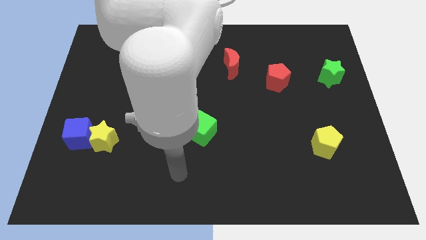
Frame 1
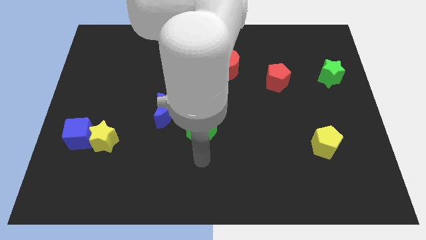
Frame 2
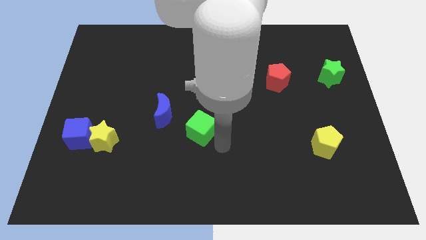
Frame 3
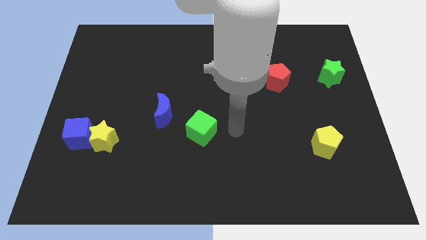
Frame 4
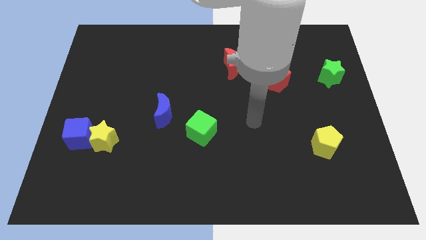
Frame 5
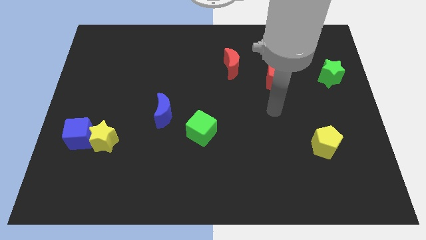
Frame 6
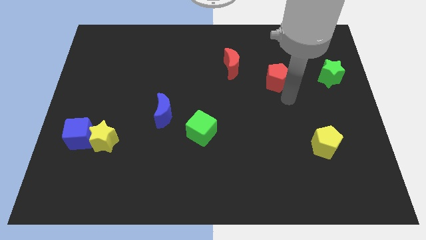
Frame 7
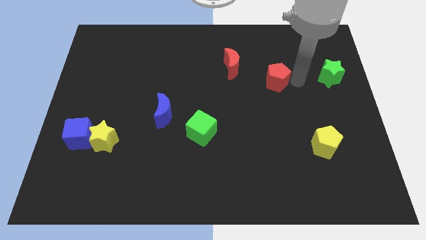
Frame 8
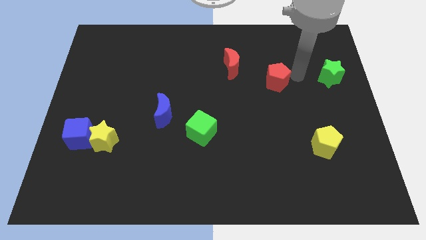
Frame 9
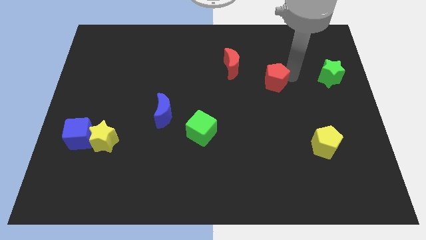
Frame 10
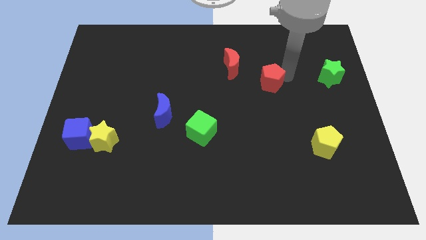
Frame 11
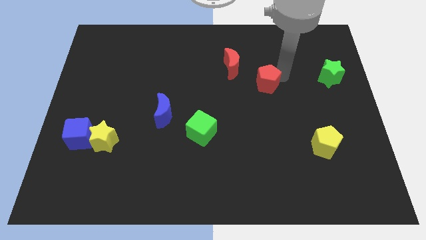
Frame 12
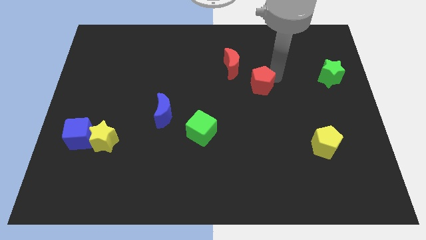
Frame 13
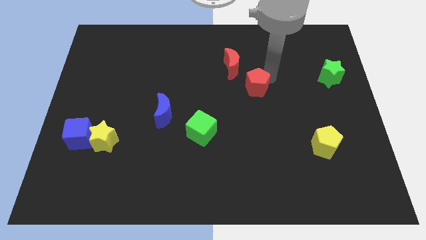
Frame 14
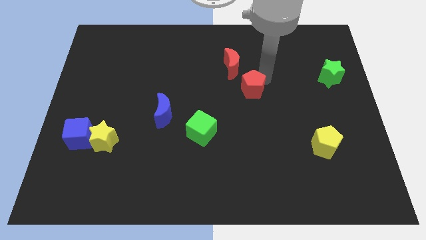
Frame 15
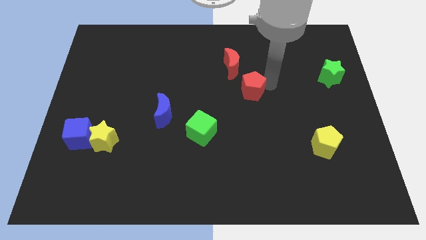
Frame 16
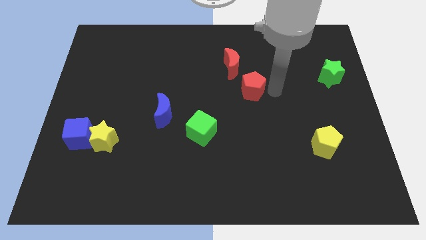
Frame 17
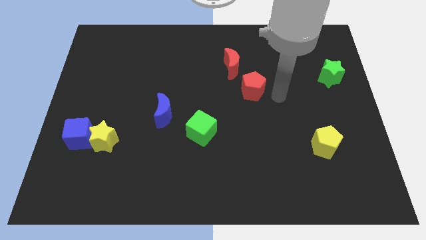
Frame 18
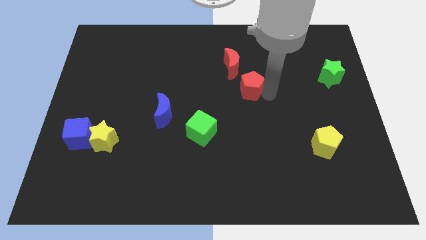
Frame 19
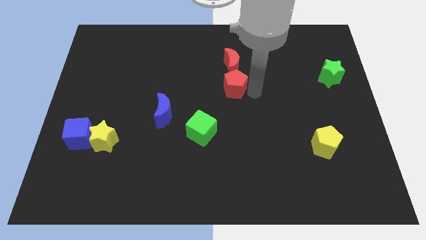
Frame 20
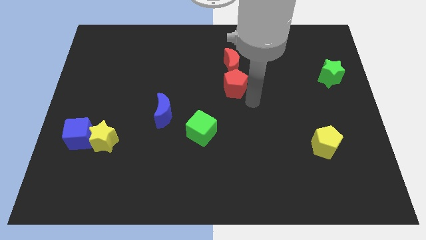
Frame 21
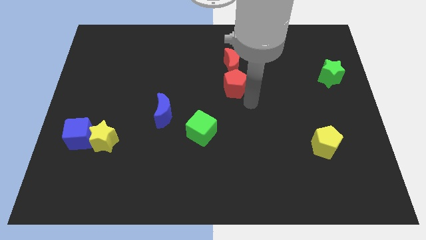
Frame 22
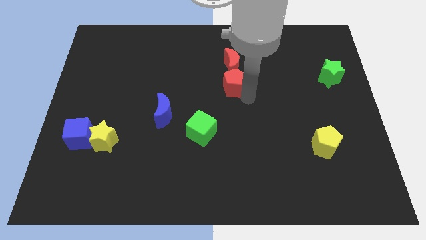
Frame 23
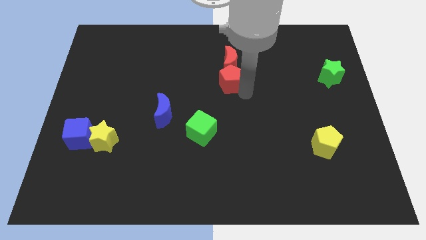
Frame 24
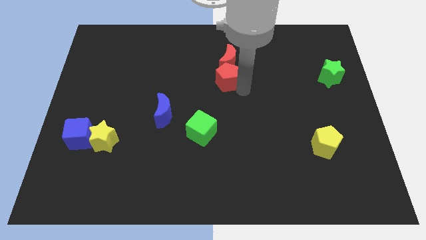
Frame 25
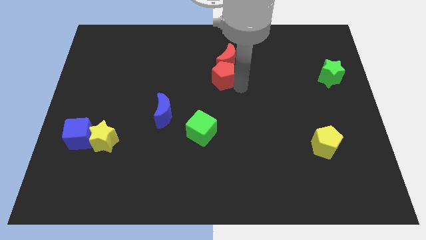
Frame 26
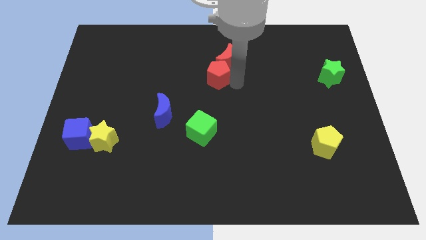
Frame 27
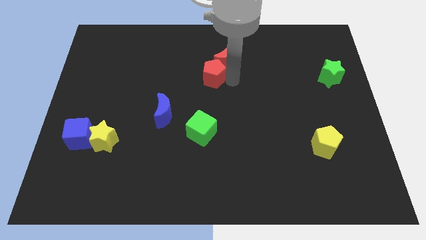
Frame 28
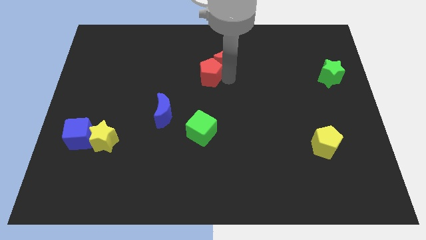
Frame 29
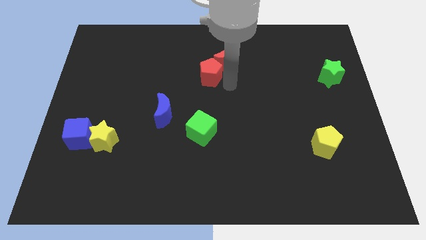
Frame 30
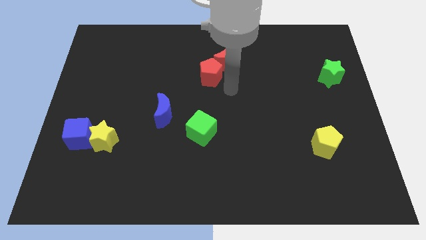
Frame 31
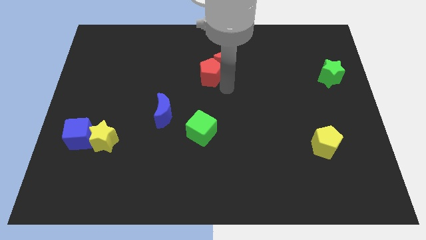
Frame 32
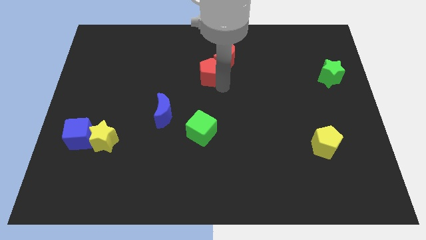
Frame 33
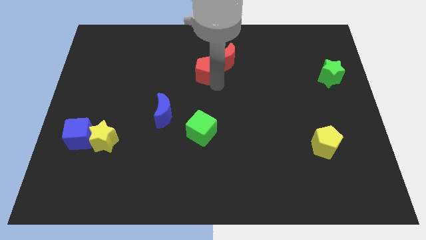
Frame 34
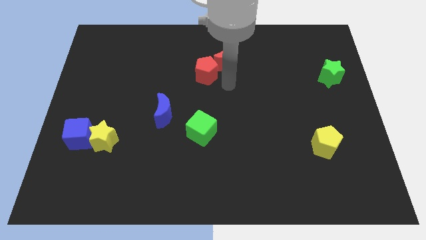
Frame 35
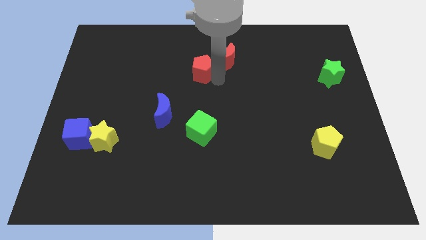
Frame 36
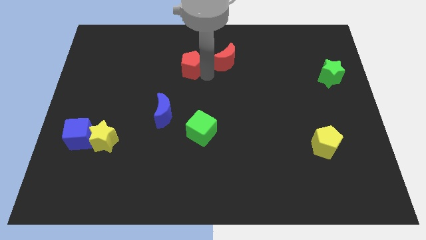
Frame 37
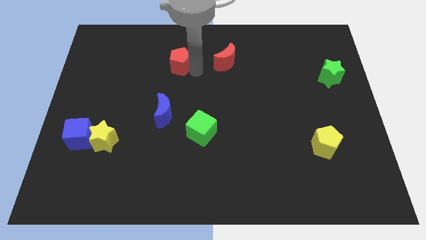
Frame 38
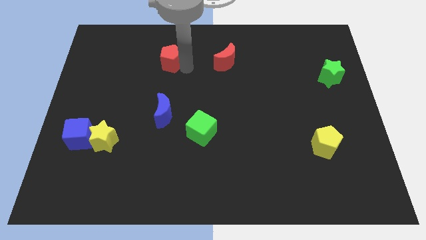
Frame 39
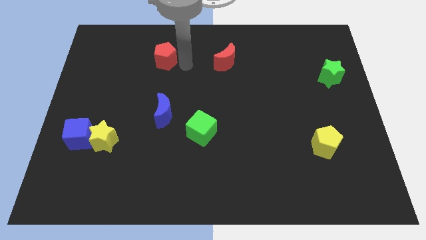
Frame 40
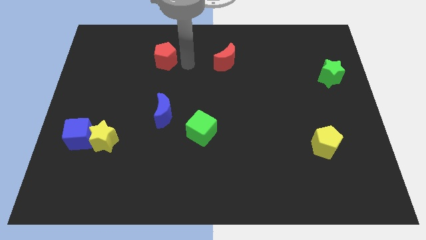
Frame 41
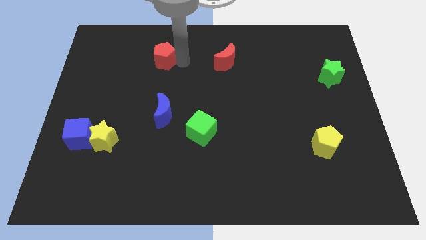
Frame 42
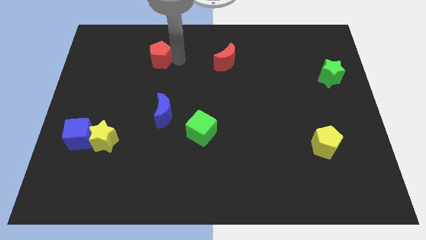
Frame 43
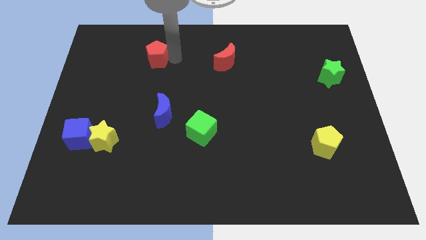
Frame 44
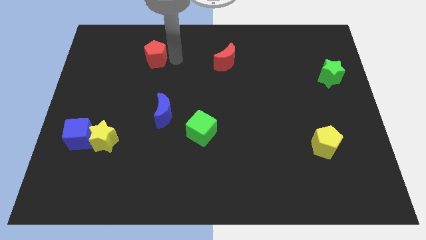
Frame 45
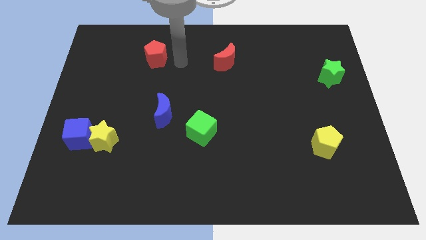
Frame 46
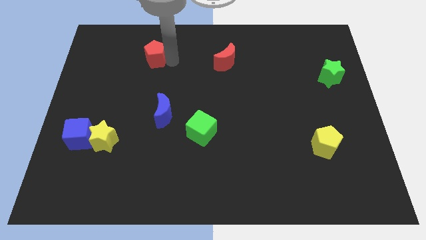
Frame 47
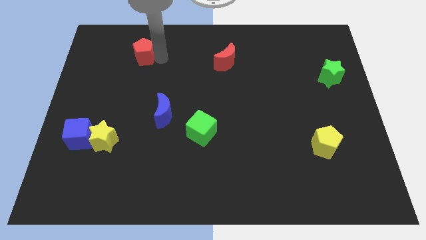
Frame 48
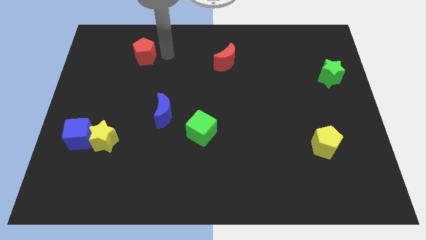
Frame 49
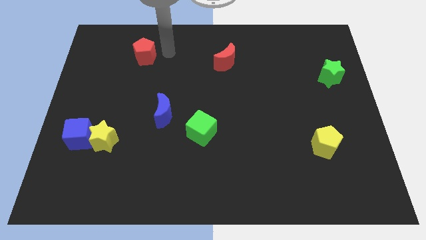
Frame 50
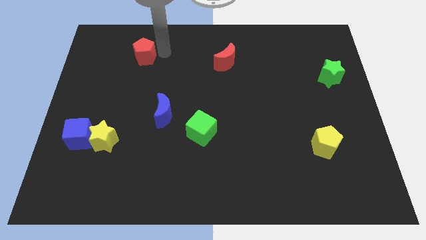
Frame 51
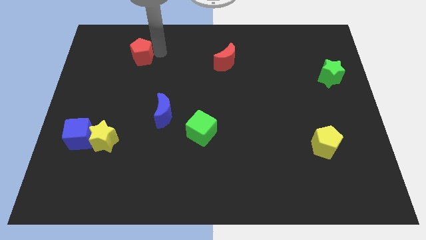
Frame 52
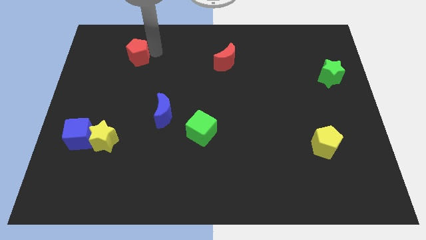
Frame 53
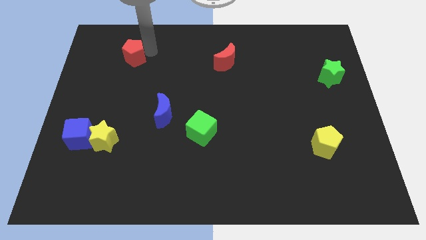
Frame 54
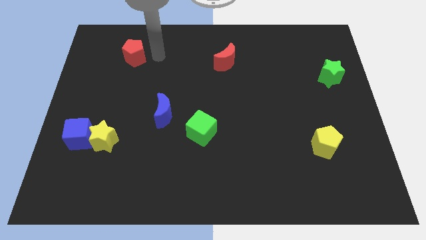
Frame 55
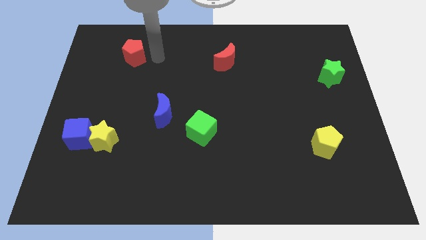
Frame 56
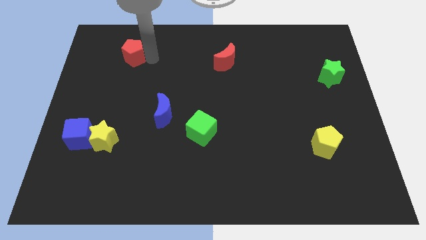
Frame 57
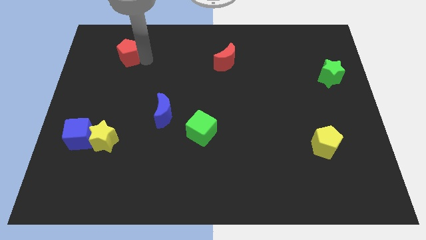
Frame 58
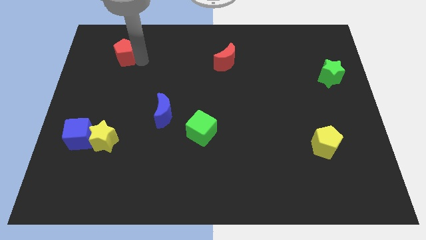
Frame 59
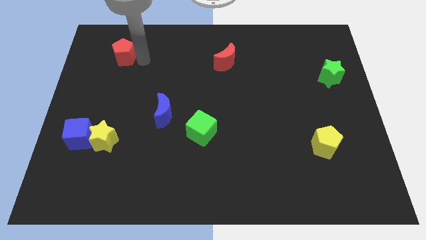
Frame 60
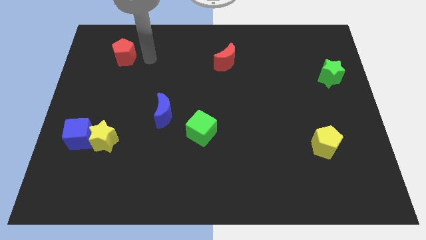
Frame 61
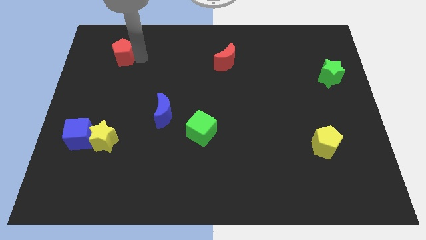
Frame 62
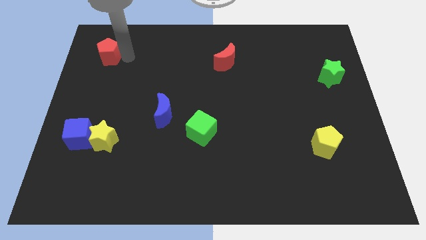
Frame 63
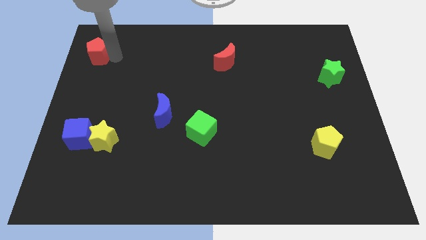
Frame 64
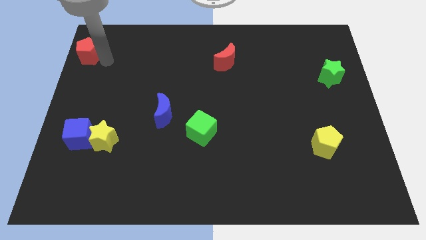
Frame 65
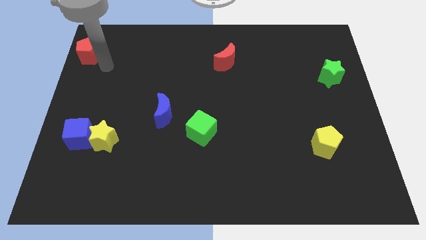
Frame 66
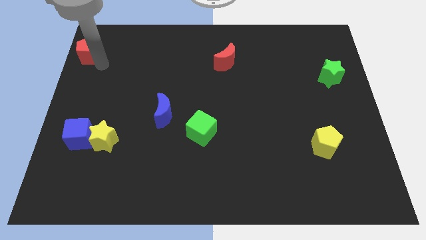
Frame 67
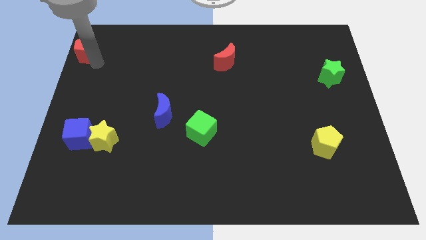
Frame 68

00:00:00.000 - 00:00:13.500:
move the red pentagon to the top left of the board
